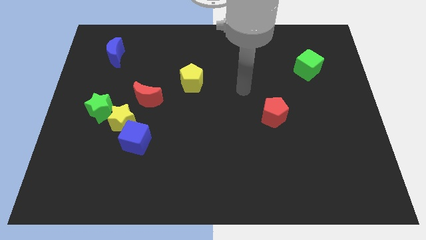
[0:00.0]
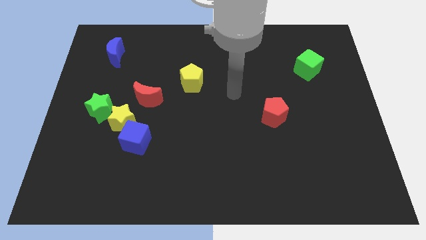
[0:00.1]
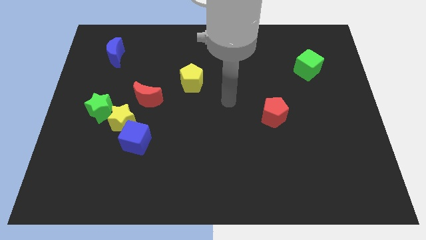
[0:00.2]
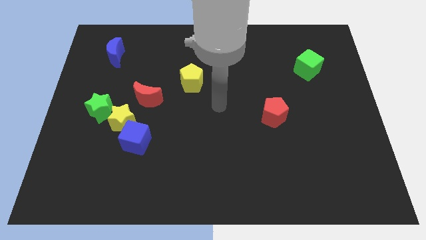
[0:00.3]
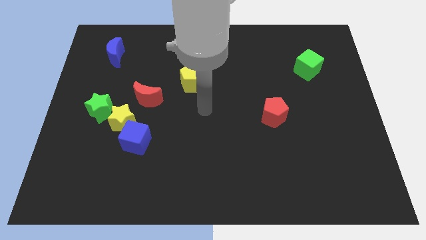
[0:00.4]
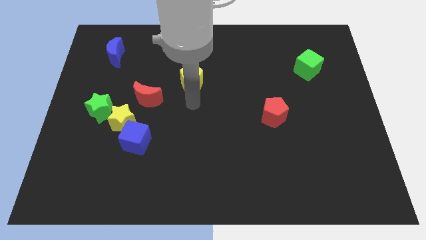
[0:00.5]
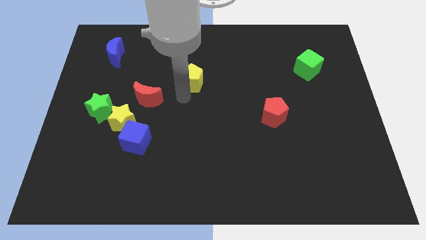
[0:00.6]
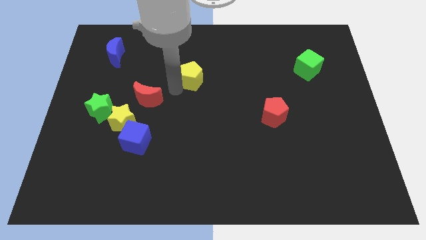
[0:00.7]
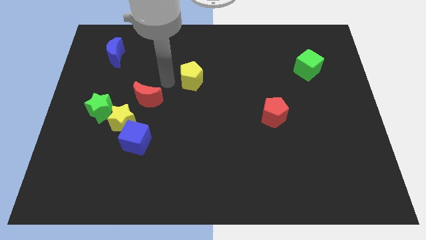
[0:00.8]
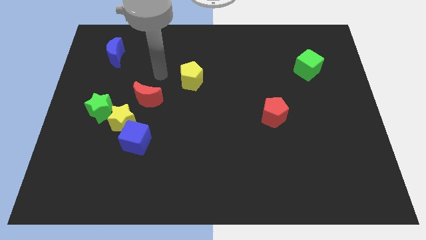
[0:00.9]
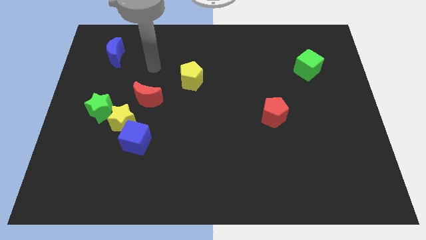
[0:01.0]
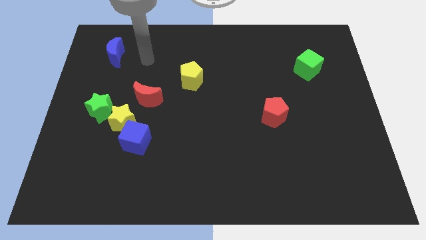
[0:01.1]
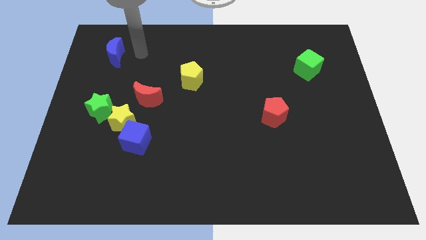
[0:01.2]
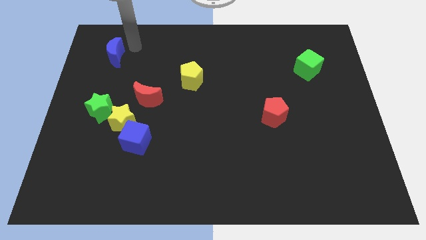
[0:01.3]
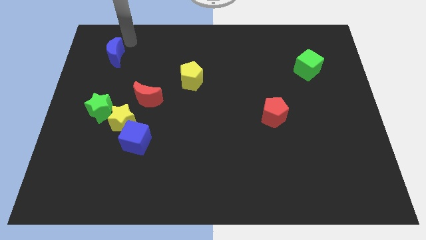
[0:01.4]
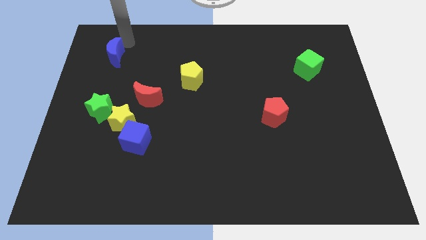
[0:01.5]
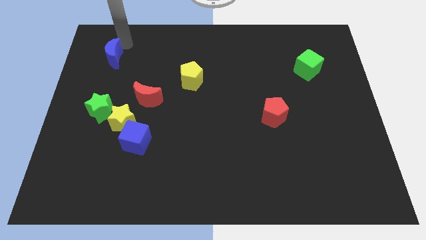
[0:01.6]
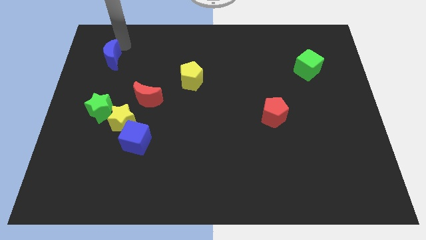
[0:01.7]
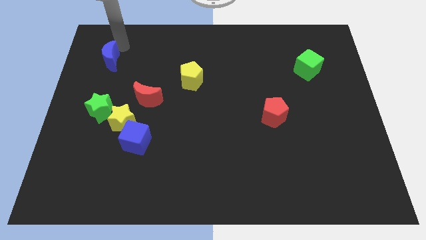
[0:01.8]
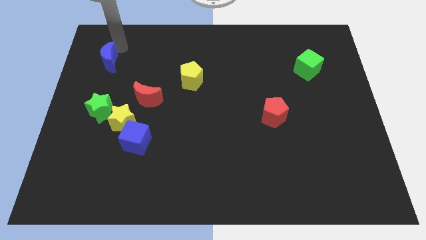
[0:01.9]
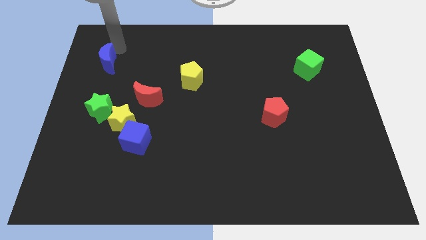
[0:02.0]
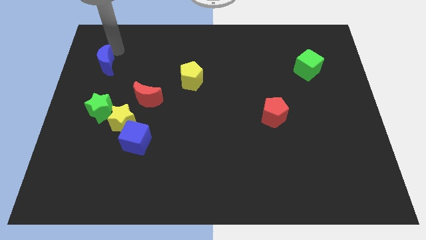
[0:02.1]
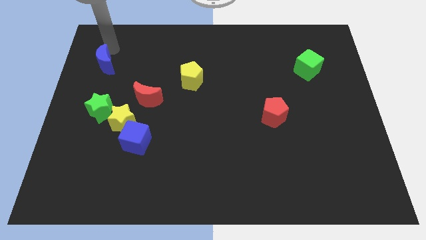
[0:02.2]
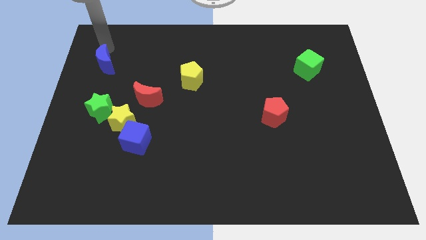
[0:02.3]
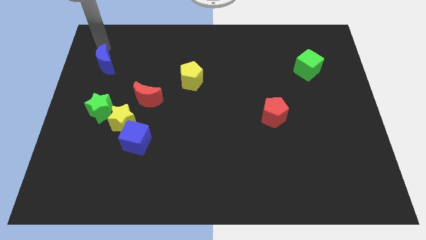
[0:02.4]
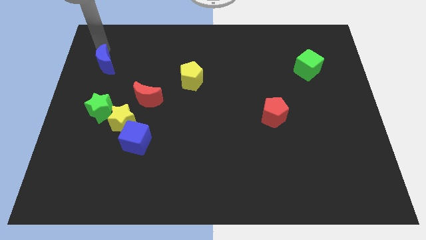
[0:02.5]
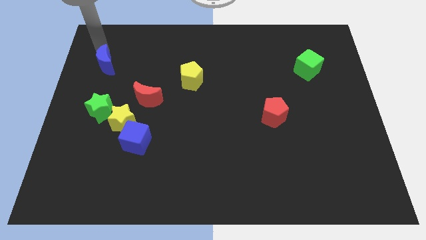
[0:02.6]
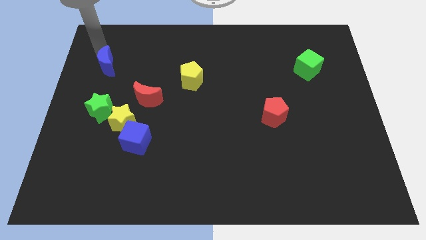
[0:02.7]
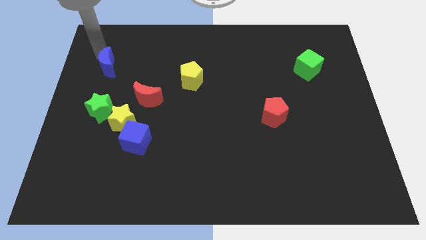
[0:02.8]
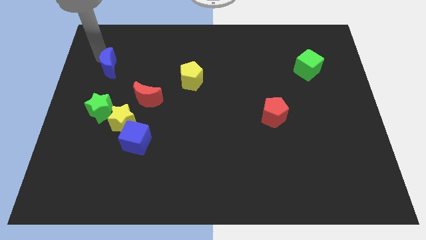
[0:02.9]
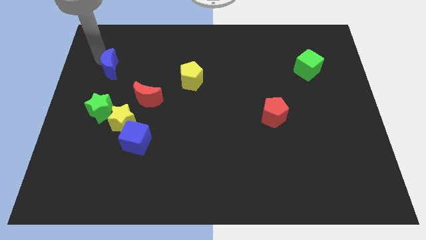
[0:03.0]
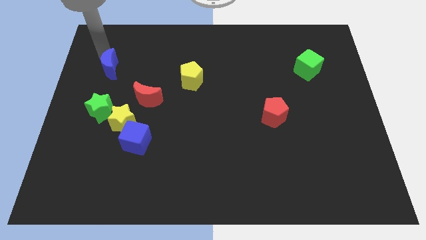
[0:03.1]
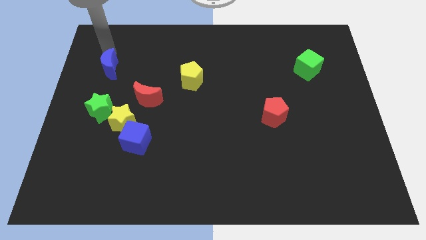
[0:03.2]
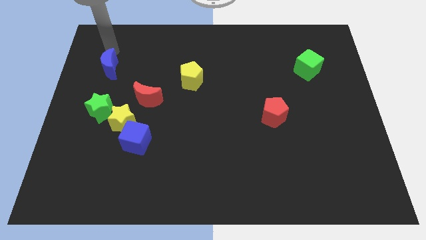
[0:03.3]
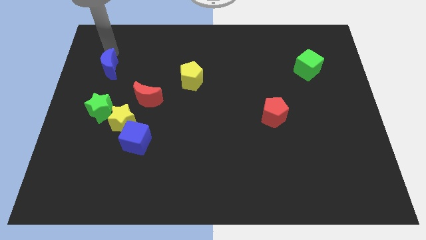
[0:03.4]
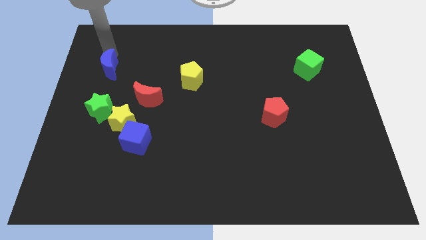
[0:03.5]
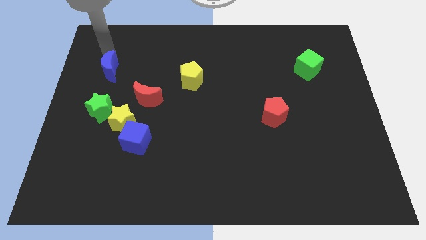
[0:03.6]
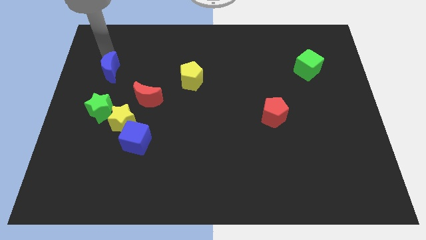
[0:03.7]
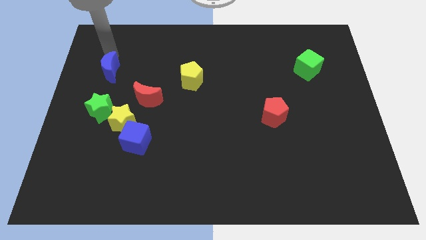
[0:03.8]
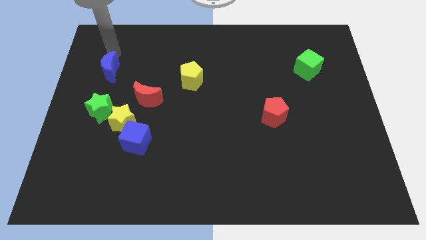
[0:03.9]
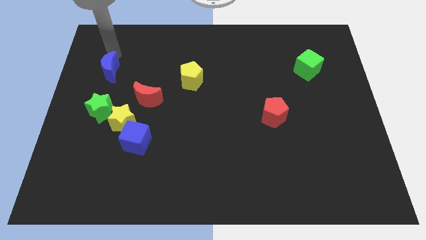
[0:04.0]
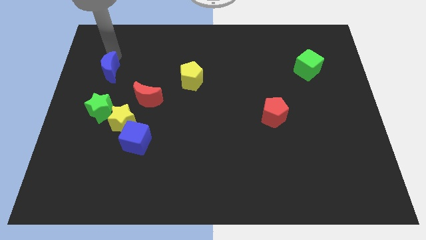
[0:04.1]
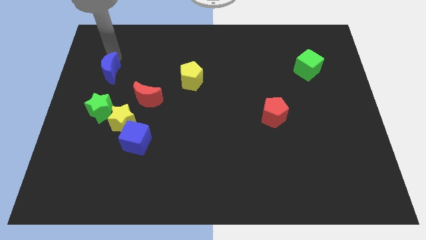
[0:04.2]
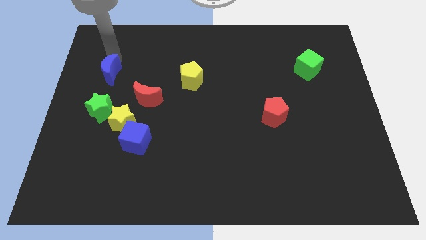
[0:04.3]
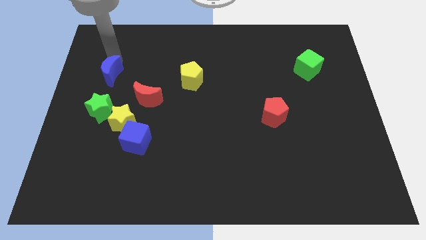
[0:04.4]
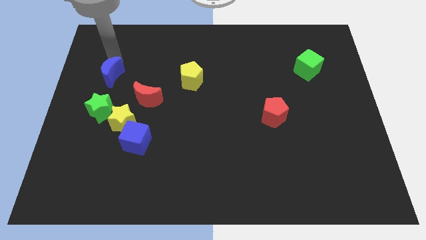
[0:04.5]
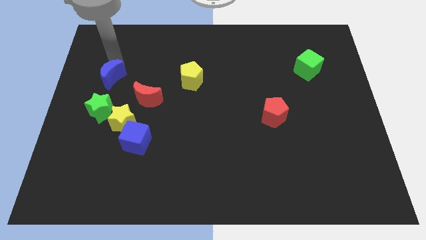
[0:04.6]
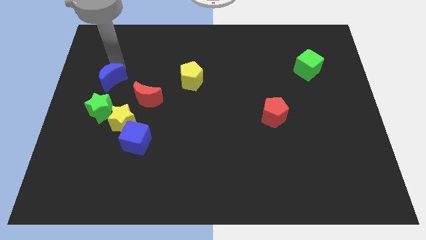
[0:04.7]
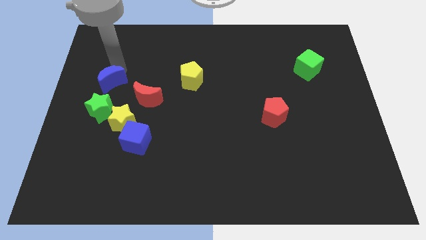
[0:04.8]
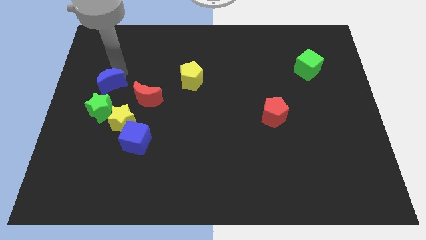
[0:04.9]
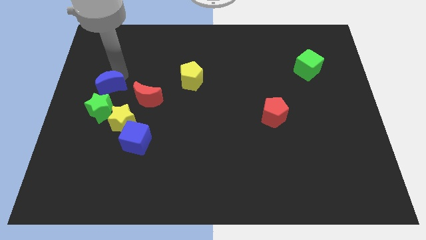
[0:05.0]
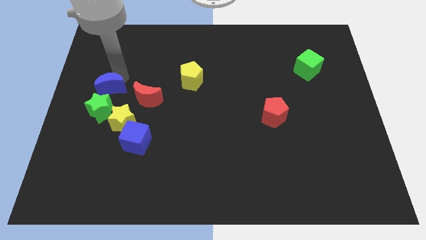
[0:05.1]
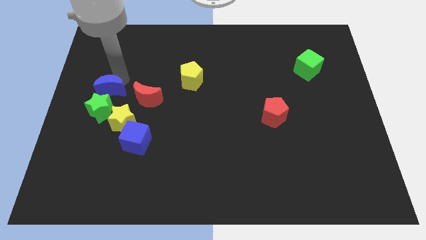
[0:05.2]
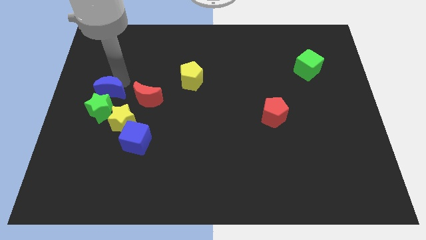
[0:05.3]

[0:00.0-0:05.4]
slide the blue moon next to the green star

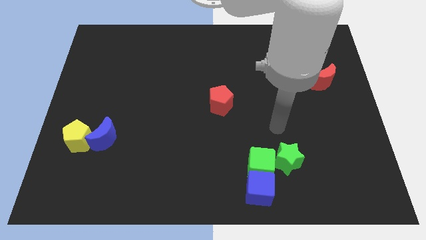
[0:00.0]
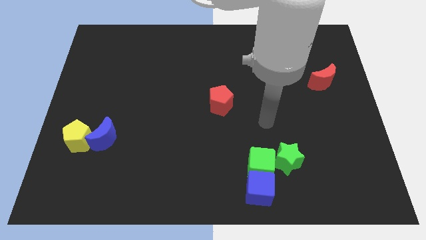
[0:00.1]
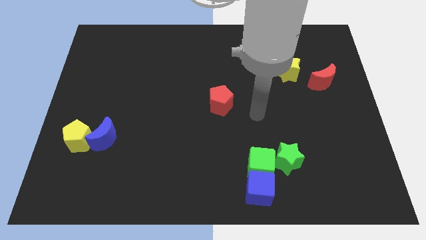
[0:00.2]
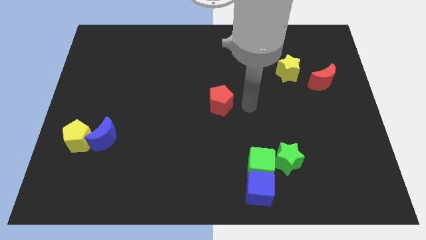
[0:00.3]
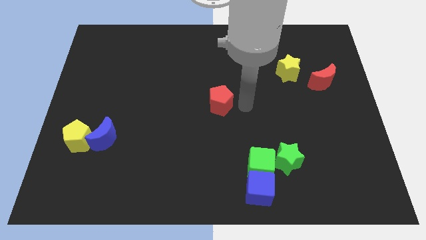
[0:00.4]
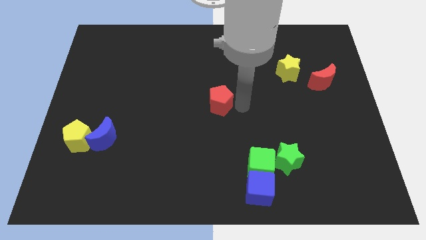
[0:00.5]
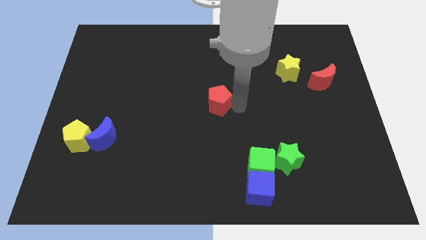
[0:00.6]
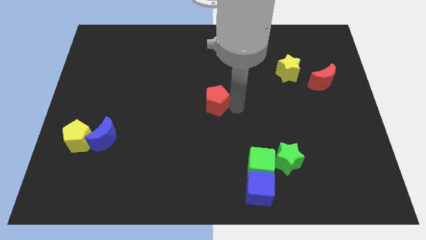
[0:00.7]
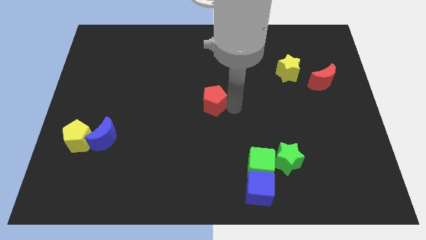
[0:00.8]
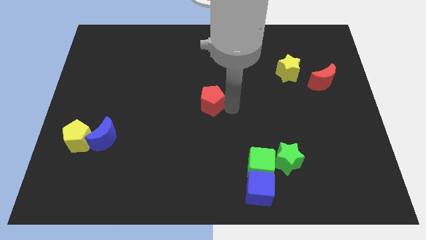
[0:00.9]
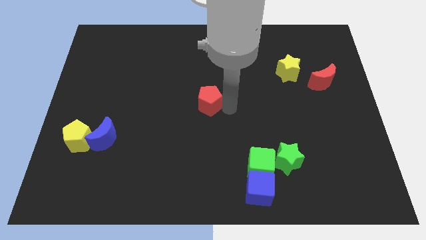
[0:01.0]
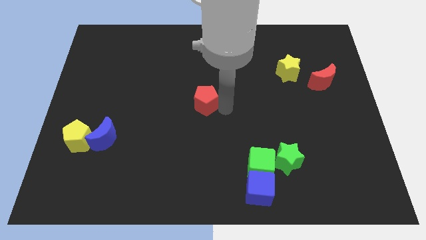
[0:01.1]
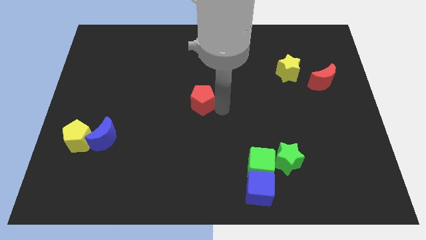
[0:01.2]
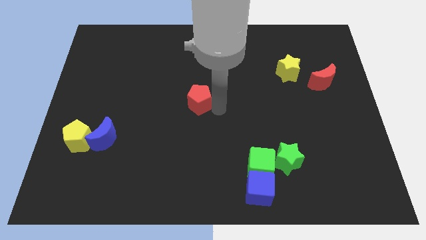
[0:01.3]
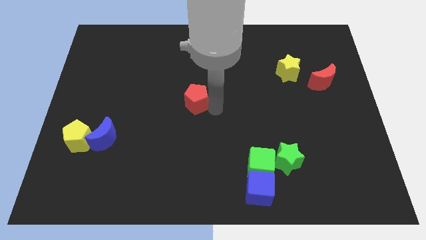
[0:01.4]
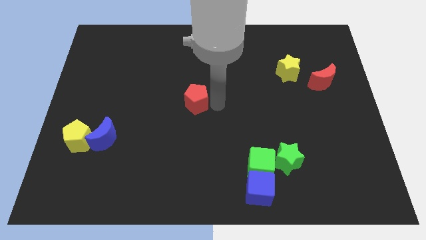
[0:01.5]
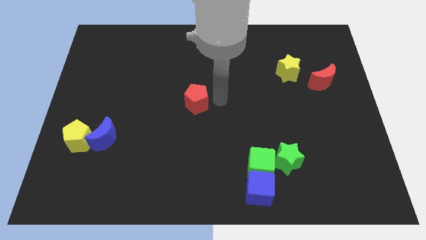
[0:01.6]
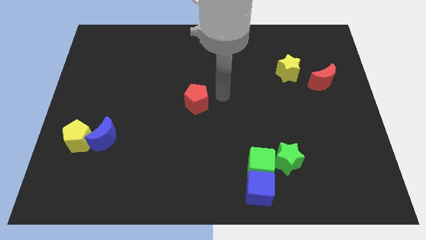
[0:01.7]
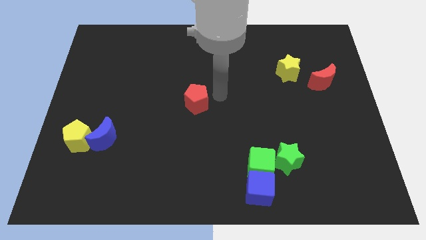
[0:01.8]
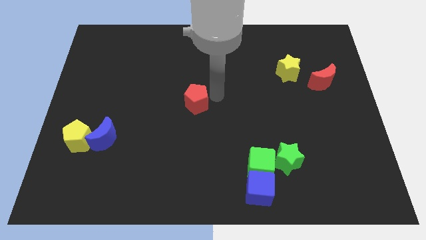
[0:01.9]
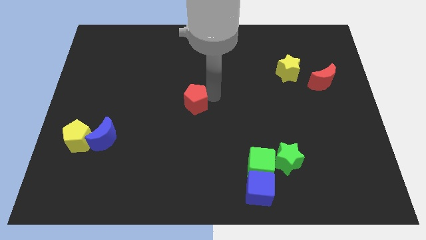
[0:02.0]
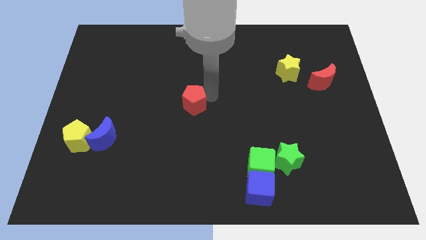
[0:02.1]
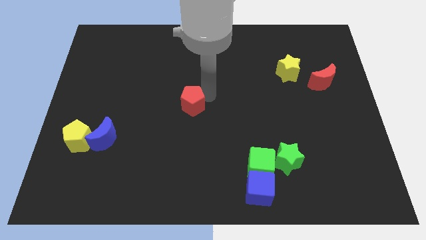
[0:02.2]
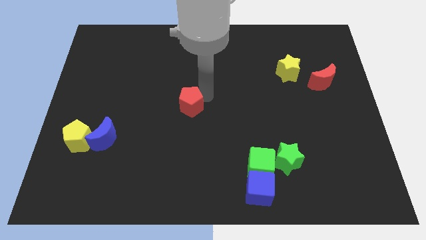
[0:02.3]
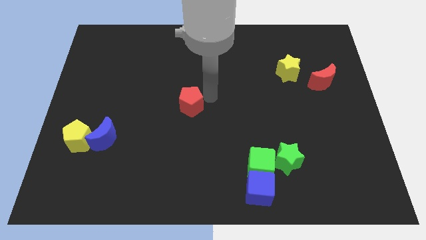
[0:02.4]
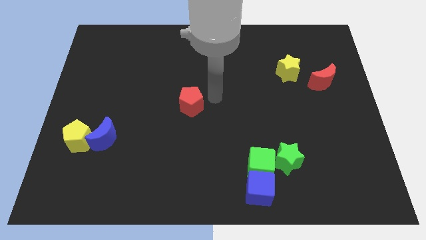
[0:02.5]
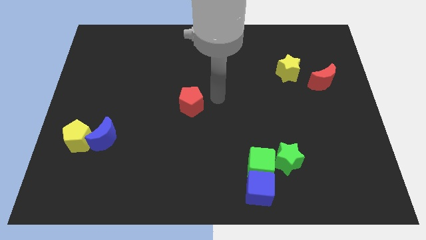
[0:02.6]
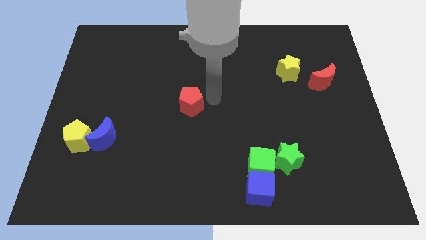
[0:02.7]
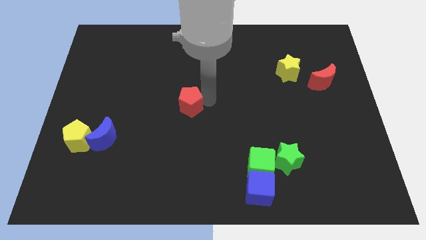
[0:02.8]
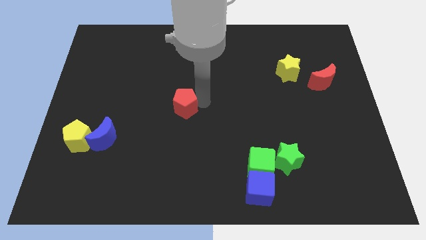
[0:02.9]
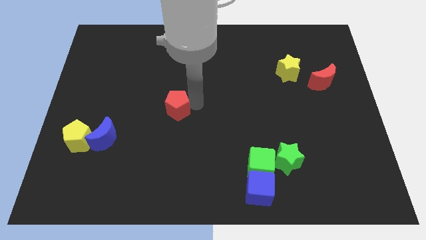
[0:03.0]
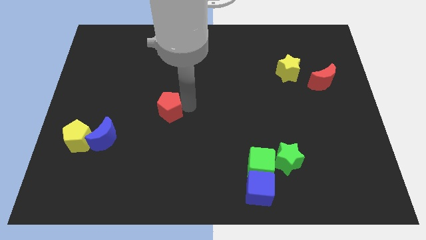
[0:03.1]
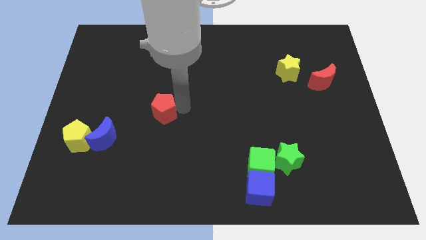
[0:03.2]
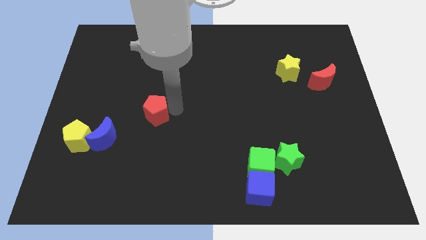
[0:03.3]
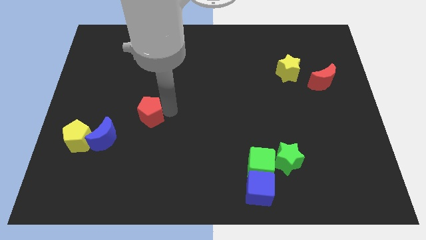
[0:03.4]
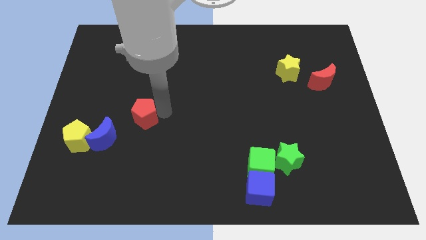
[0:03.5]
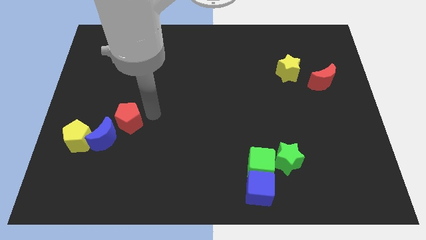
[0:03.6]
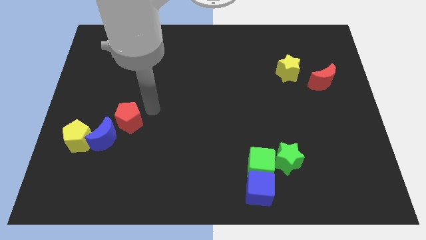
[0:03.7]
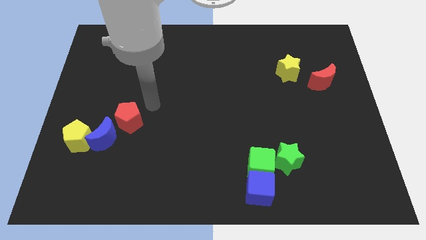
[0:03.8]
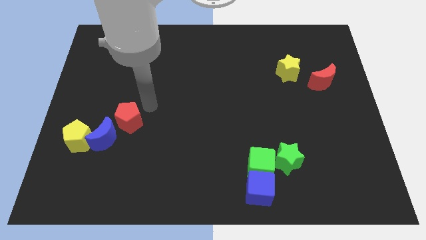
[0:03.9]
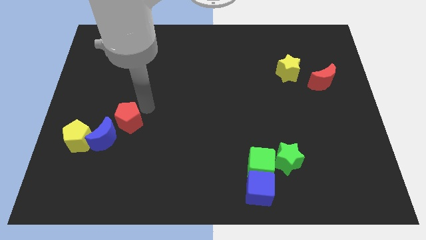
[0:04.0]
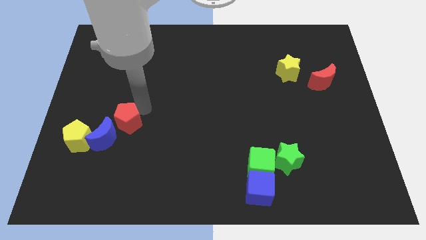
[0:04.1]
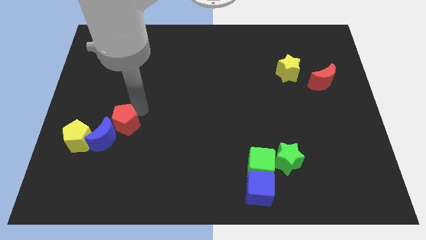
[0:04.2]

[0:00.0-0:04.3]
slide the red pentagon next to the blue moon
